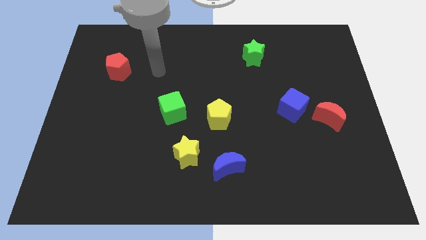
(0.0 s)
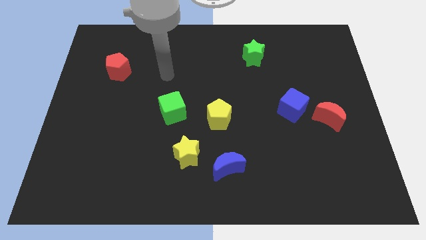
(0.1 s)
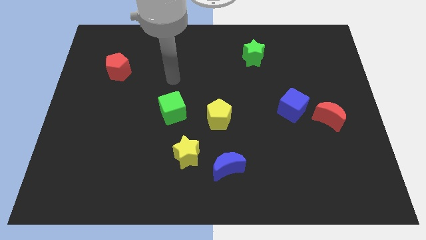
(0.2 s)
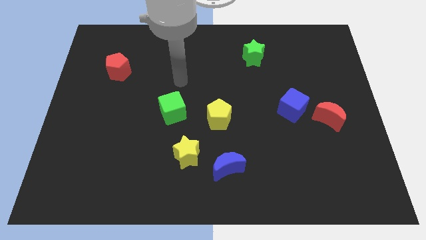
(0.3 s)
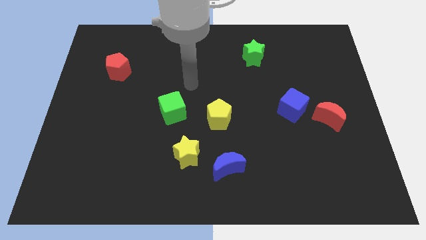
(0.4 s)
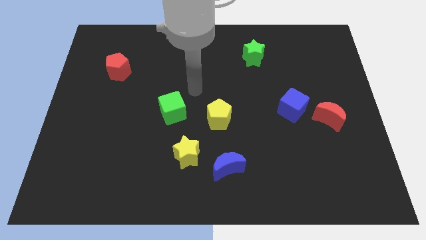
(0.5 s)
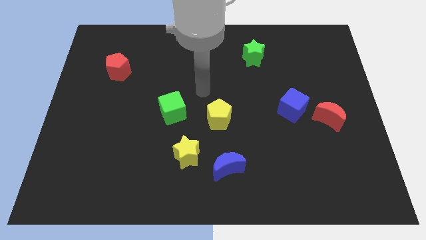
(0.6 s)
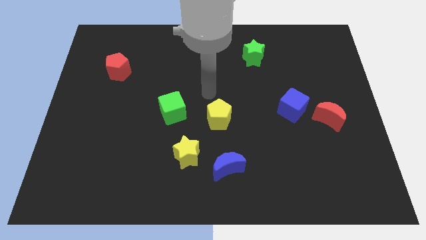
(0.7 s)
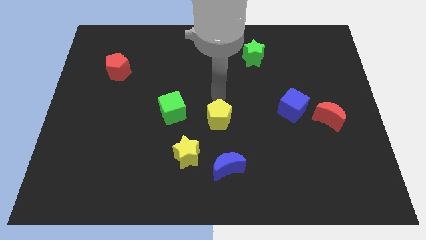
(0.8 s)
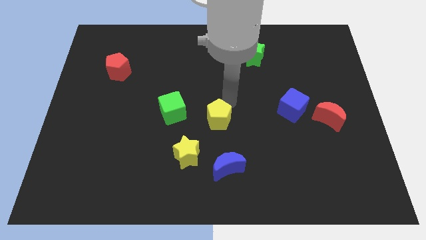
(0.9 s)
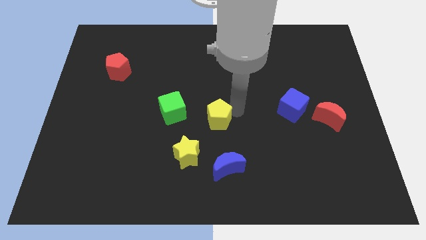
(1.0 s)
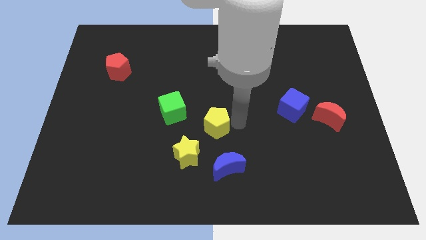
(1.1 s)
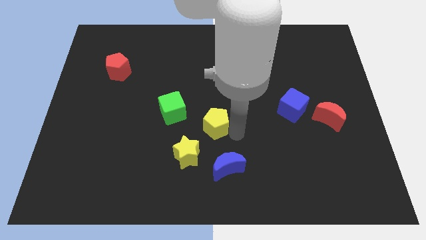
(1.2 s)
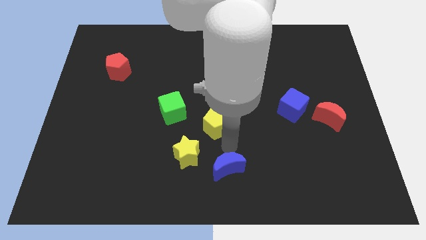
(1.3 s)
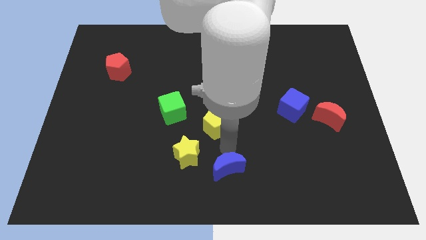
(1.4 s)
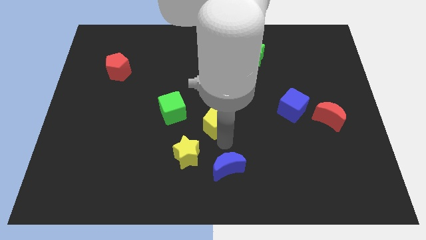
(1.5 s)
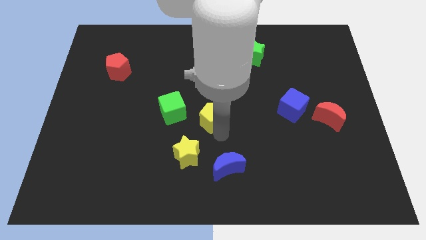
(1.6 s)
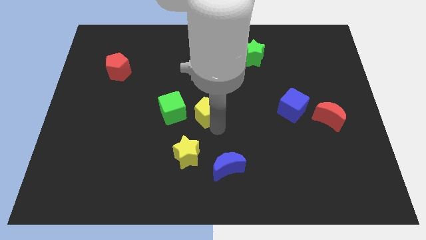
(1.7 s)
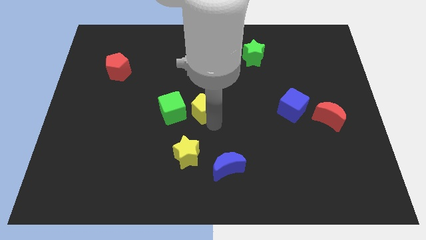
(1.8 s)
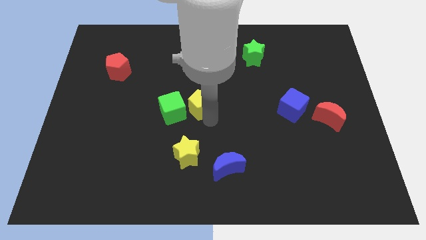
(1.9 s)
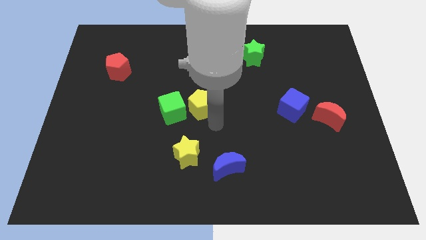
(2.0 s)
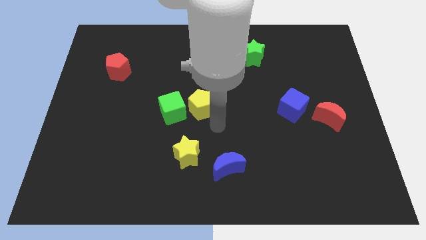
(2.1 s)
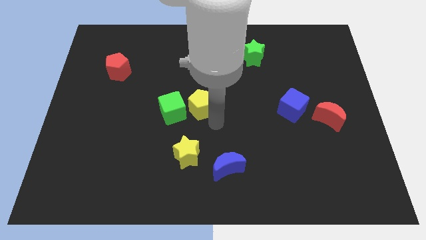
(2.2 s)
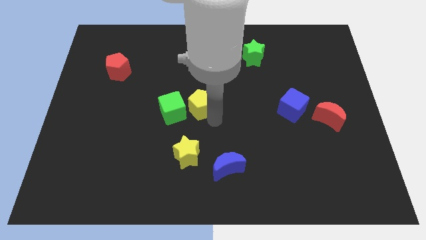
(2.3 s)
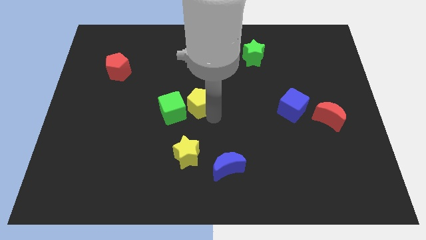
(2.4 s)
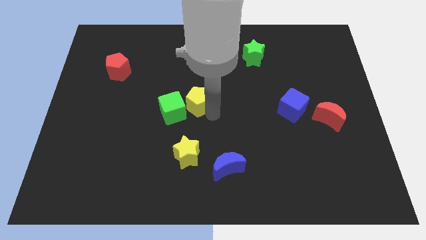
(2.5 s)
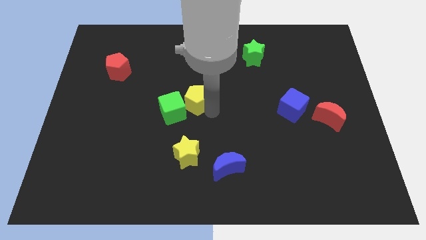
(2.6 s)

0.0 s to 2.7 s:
slightly push the yellow pentagon up and left diagonally

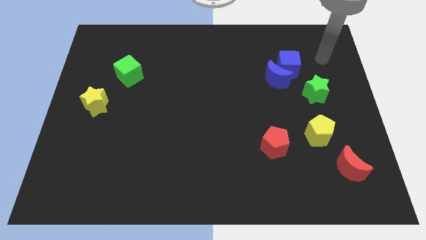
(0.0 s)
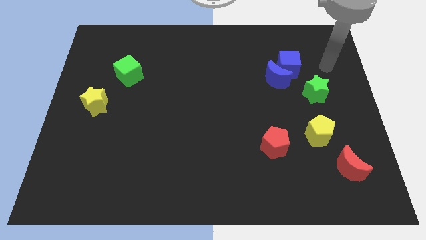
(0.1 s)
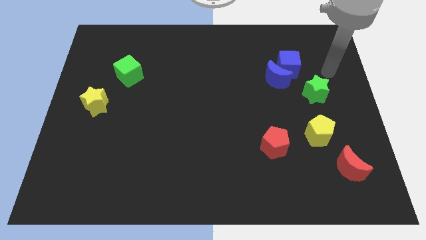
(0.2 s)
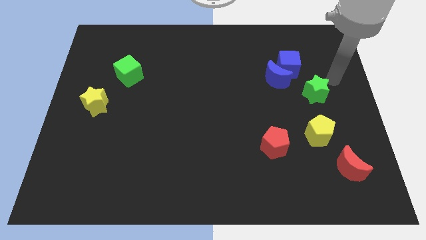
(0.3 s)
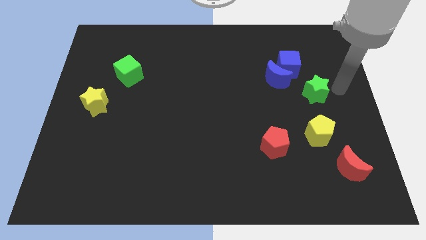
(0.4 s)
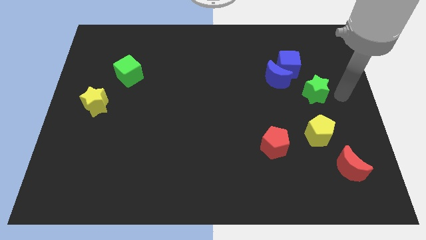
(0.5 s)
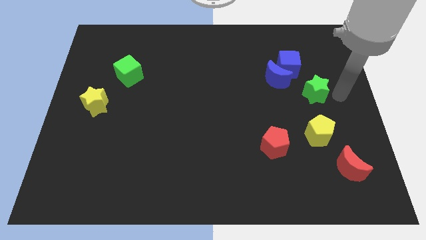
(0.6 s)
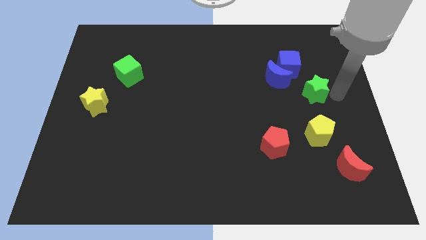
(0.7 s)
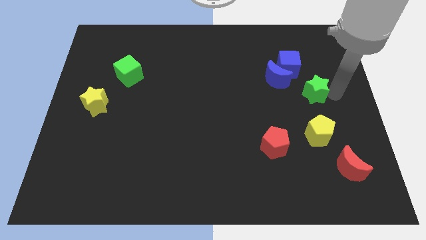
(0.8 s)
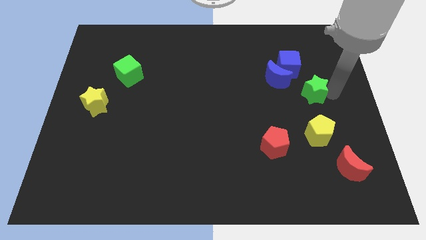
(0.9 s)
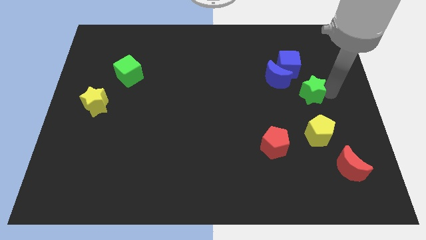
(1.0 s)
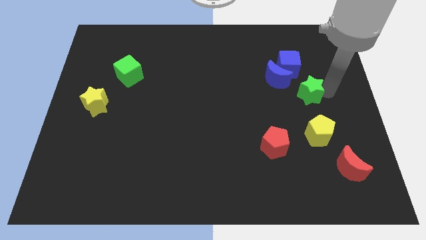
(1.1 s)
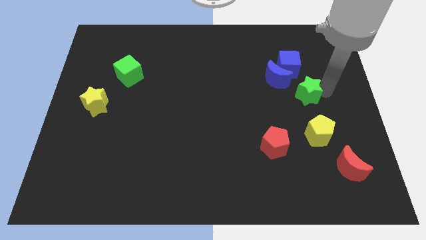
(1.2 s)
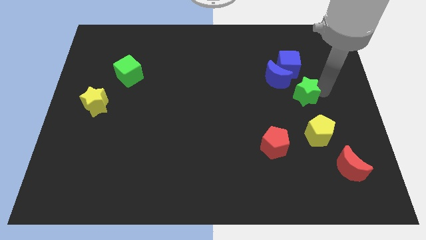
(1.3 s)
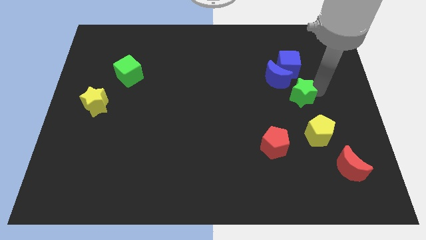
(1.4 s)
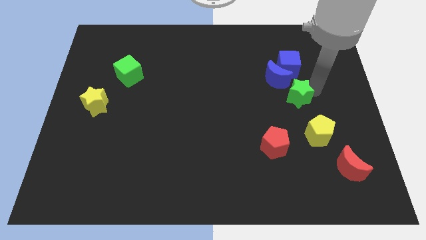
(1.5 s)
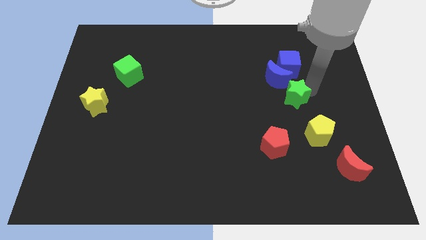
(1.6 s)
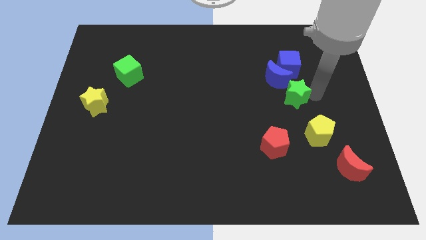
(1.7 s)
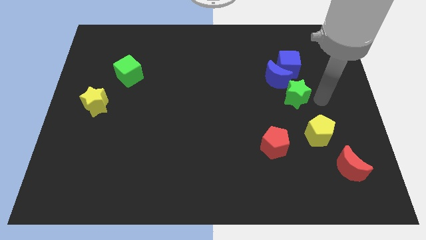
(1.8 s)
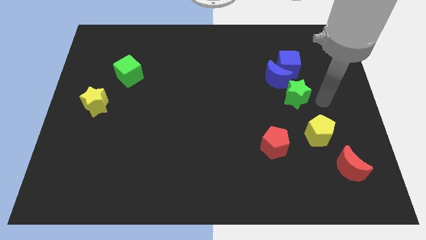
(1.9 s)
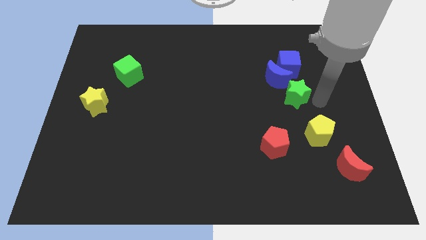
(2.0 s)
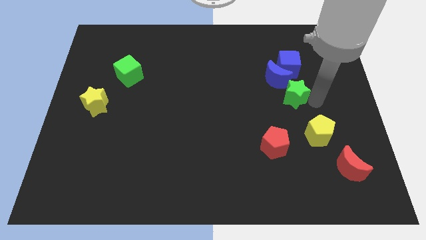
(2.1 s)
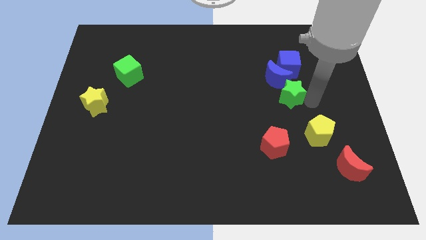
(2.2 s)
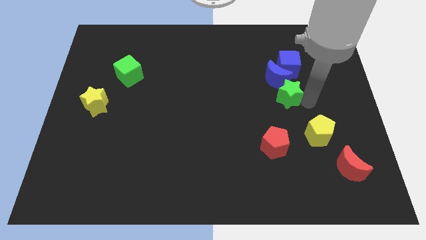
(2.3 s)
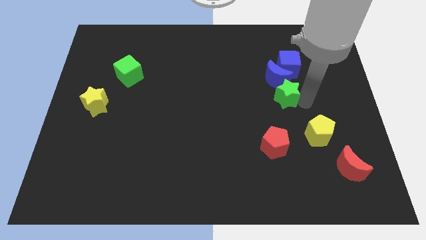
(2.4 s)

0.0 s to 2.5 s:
slightly move the green star to the left

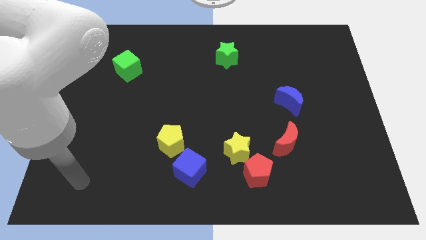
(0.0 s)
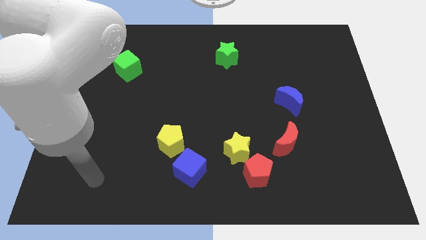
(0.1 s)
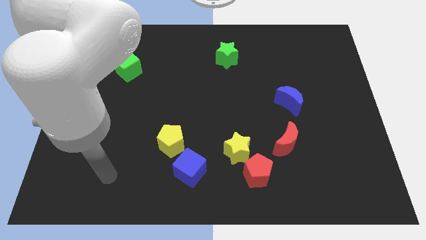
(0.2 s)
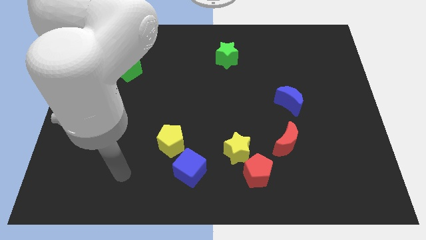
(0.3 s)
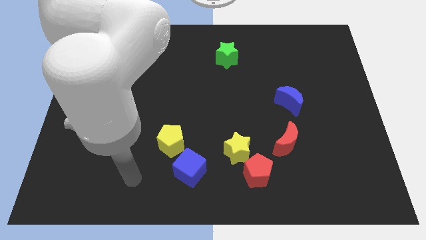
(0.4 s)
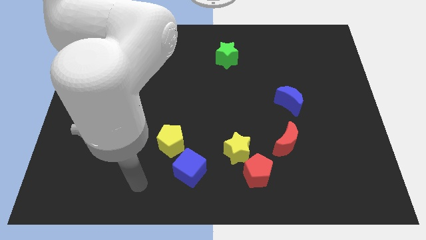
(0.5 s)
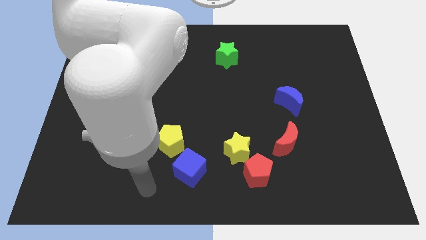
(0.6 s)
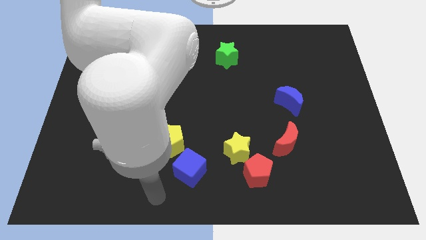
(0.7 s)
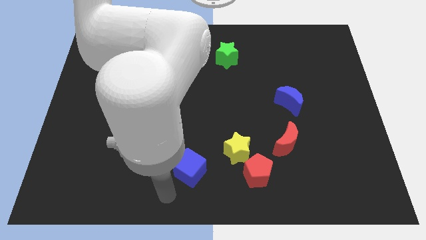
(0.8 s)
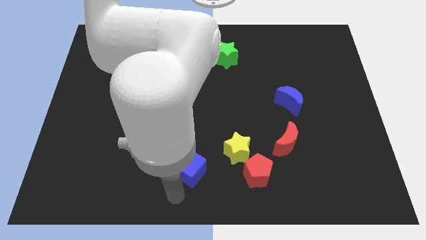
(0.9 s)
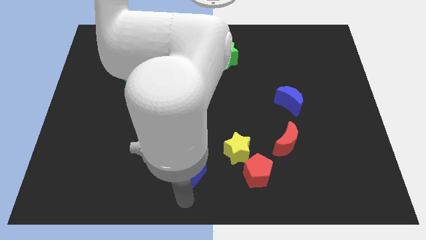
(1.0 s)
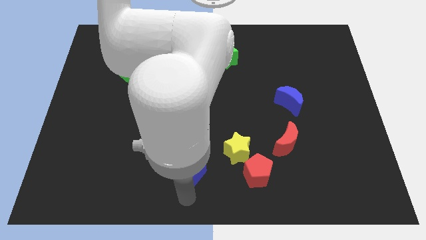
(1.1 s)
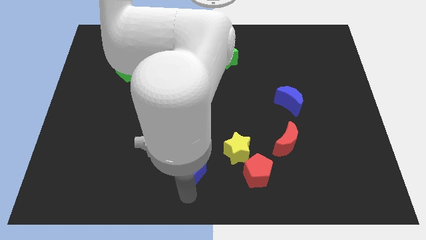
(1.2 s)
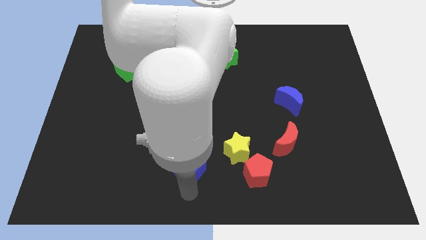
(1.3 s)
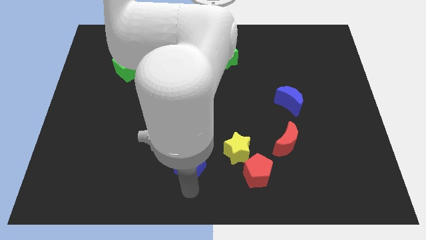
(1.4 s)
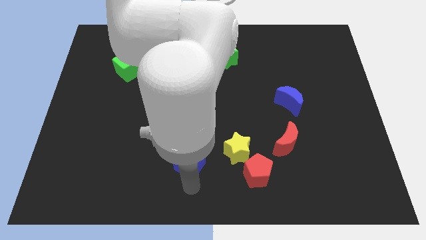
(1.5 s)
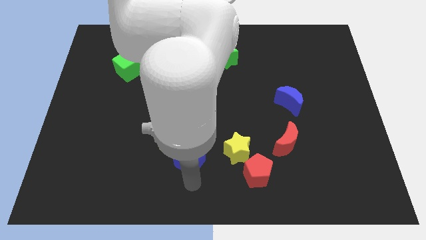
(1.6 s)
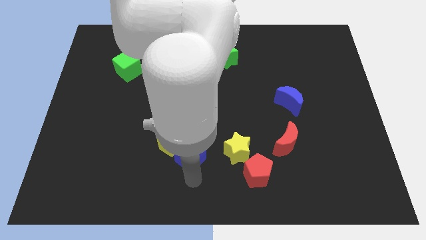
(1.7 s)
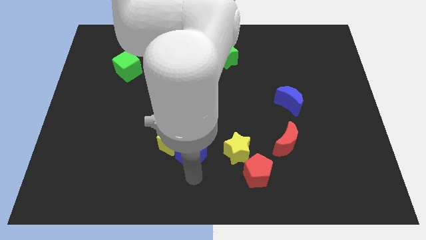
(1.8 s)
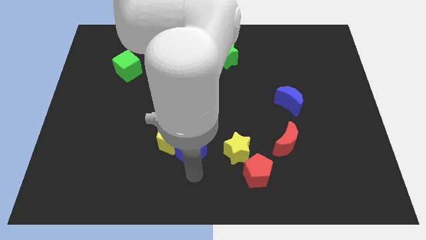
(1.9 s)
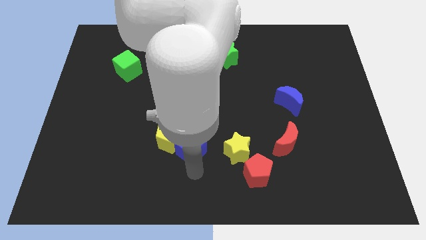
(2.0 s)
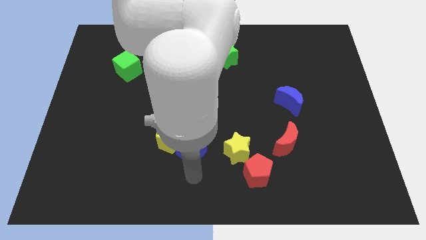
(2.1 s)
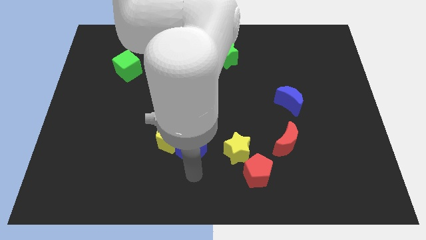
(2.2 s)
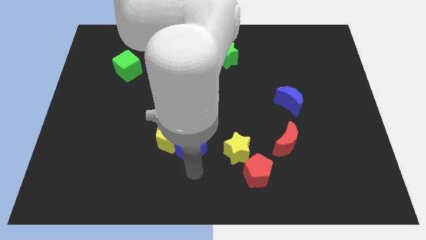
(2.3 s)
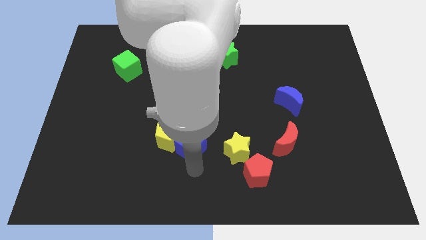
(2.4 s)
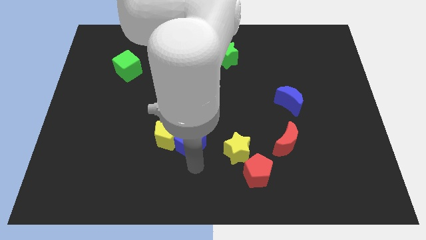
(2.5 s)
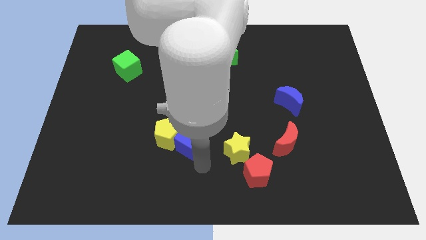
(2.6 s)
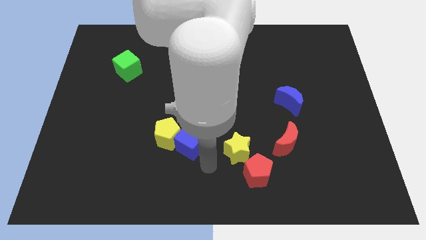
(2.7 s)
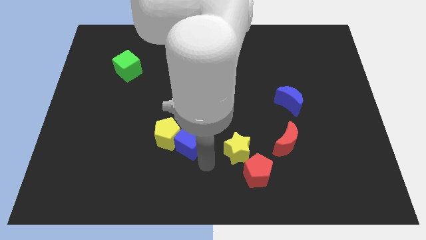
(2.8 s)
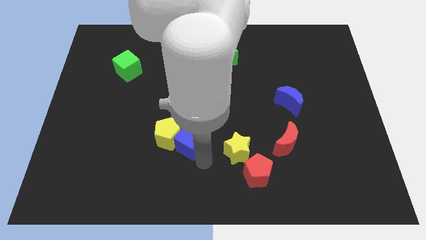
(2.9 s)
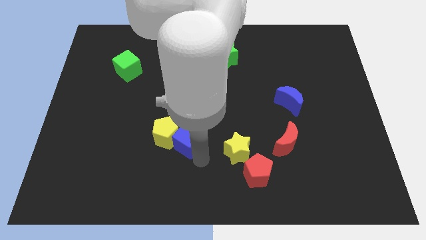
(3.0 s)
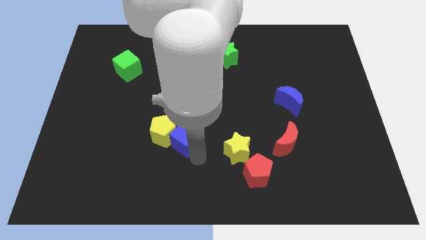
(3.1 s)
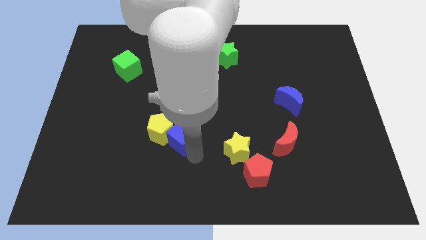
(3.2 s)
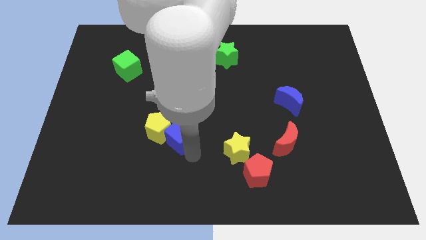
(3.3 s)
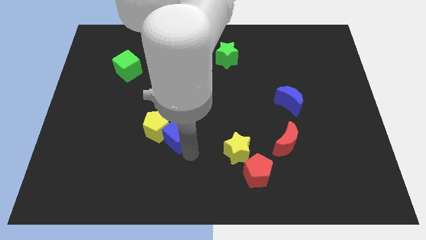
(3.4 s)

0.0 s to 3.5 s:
slightly push the blue cube diagonally upwards and to the left
